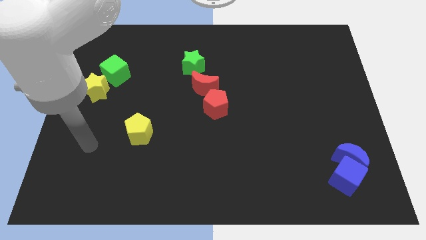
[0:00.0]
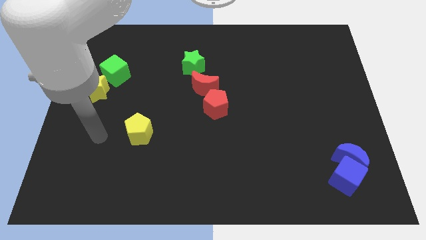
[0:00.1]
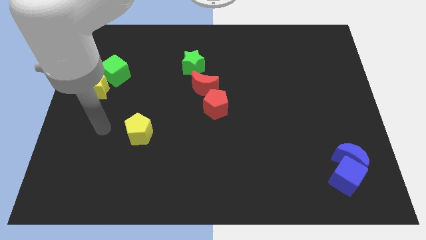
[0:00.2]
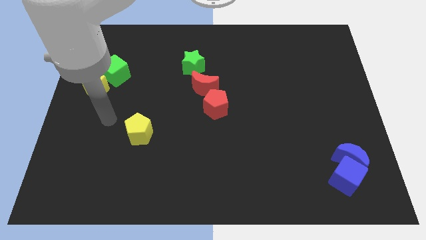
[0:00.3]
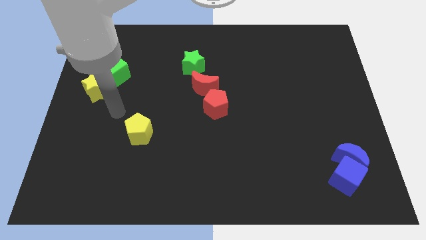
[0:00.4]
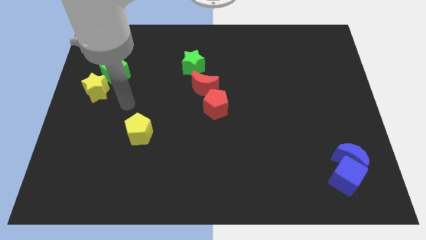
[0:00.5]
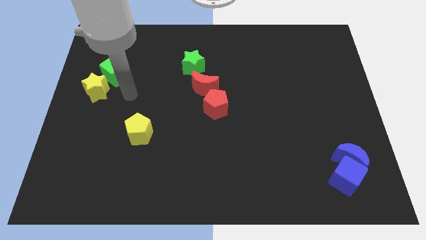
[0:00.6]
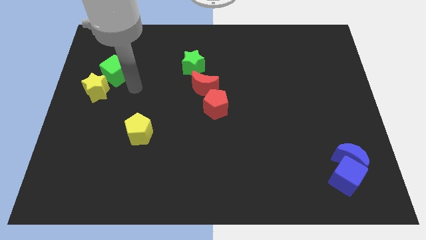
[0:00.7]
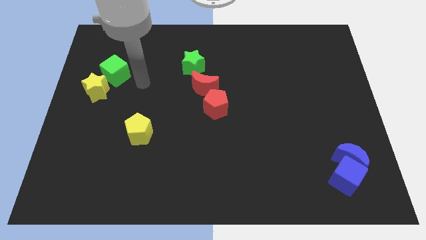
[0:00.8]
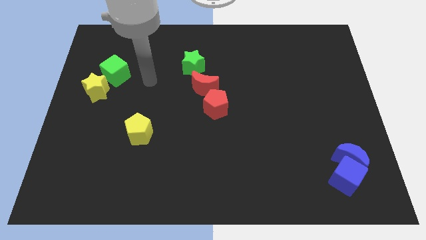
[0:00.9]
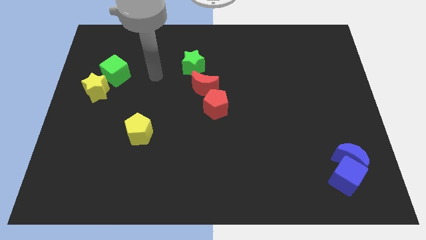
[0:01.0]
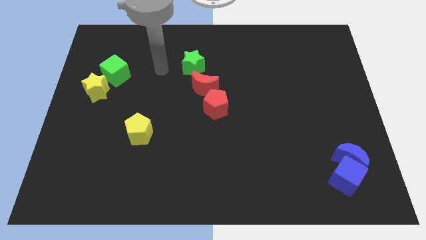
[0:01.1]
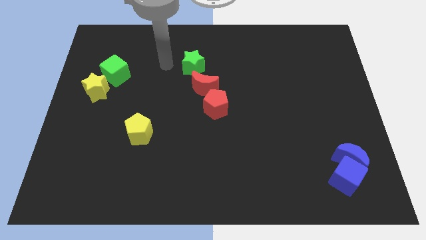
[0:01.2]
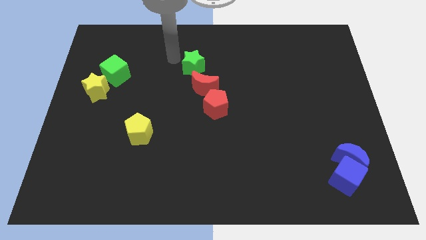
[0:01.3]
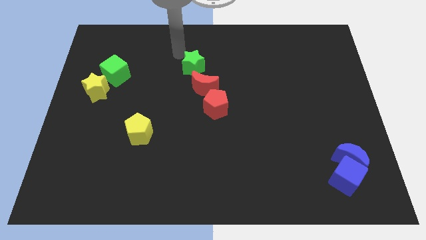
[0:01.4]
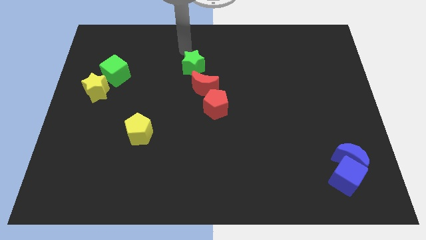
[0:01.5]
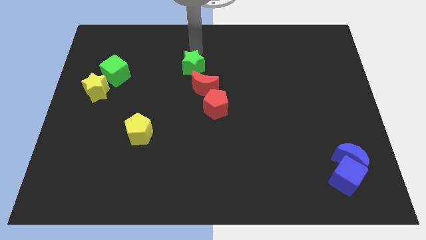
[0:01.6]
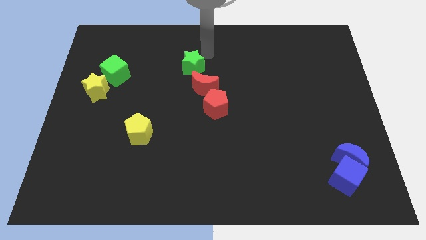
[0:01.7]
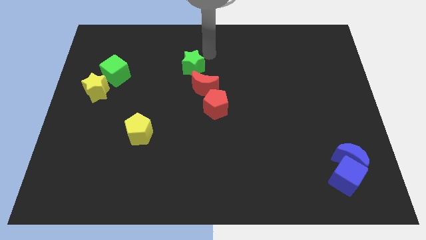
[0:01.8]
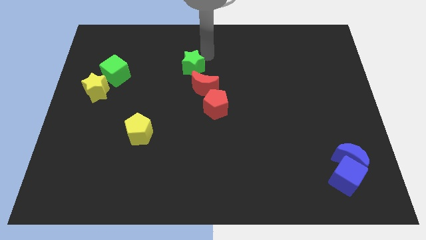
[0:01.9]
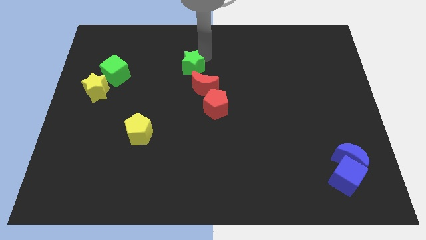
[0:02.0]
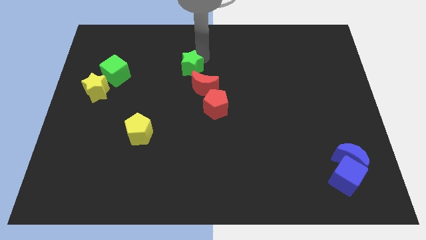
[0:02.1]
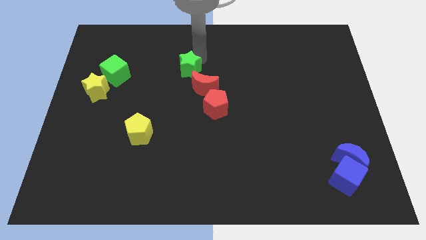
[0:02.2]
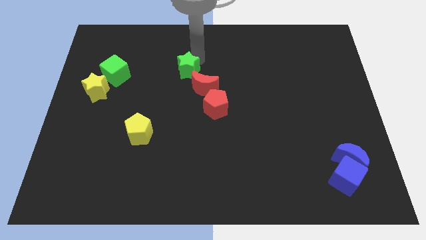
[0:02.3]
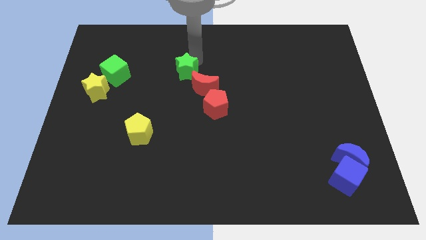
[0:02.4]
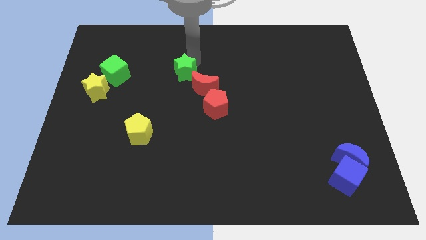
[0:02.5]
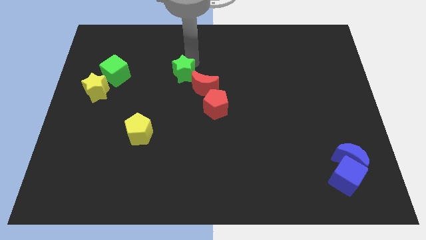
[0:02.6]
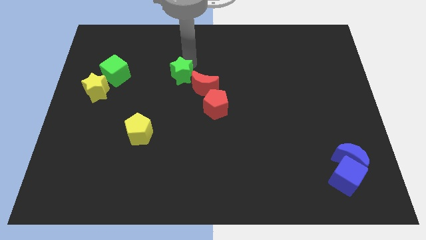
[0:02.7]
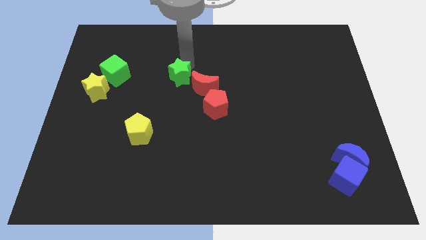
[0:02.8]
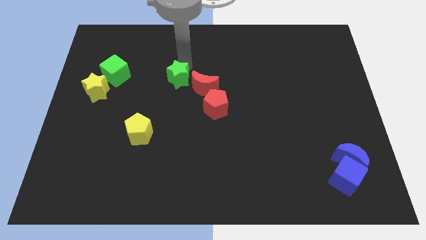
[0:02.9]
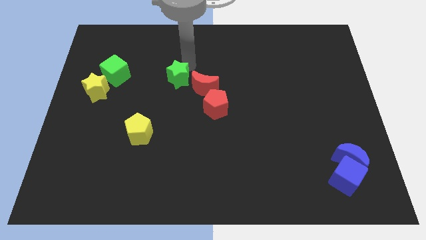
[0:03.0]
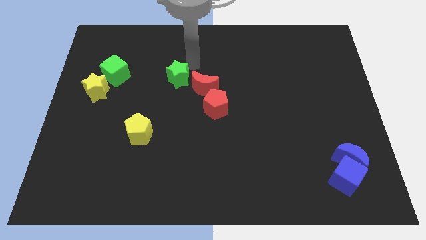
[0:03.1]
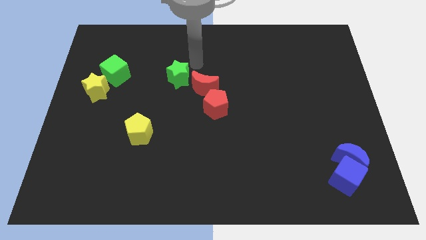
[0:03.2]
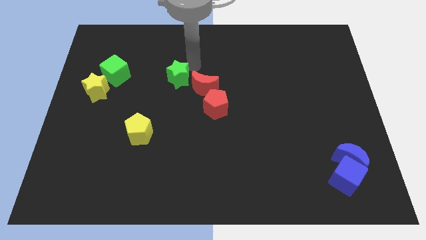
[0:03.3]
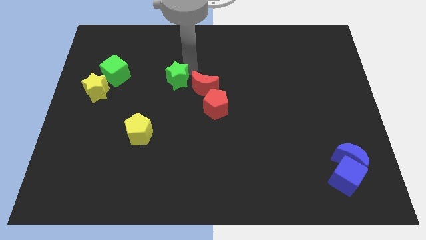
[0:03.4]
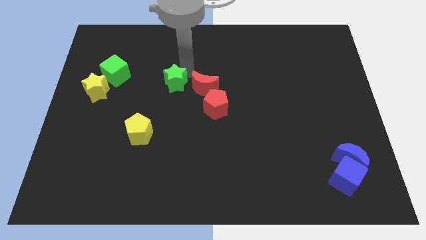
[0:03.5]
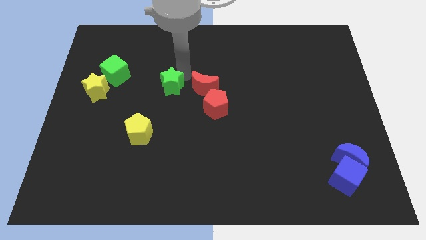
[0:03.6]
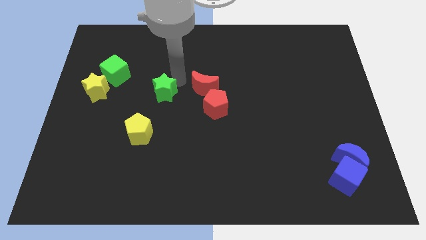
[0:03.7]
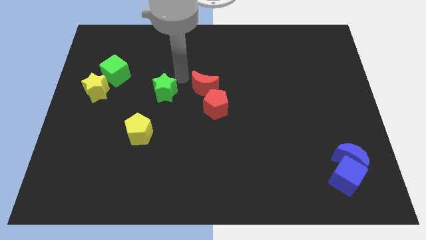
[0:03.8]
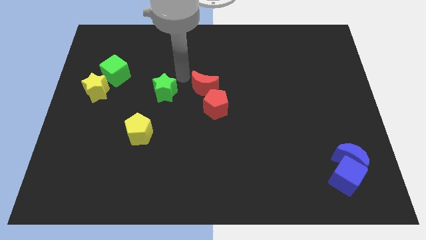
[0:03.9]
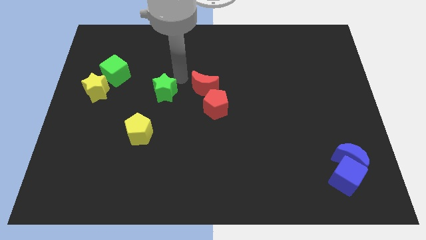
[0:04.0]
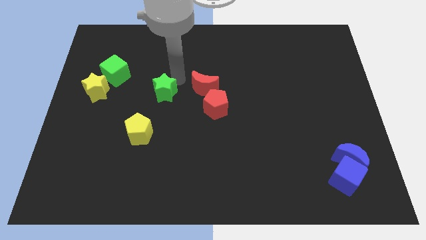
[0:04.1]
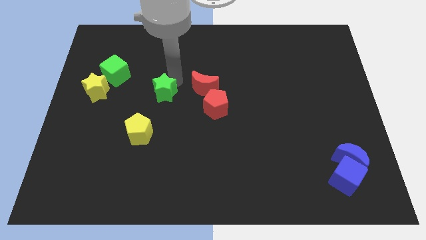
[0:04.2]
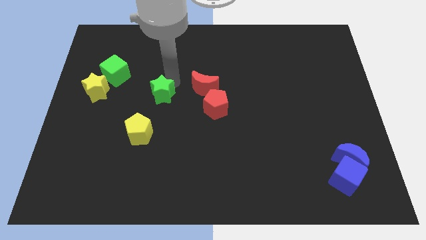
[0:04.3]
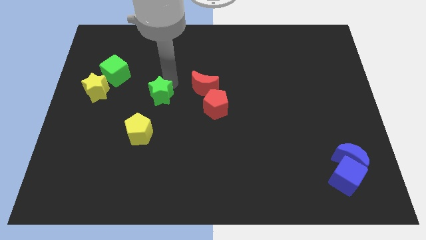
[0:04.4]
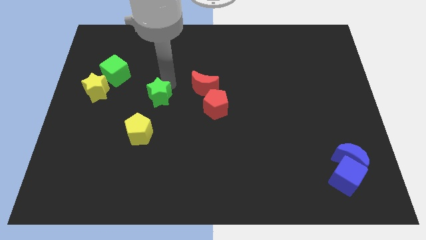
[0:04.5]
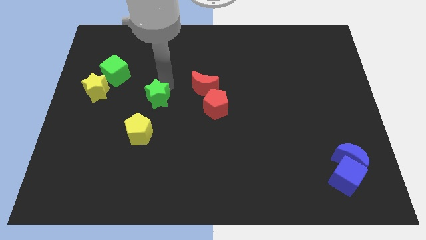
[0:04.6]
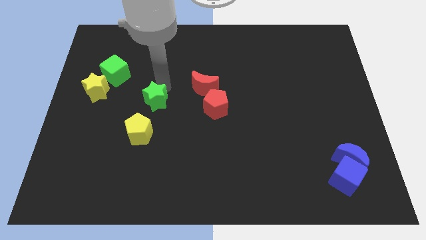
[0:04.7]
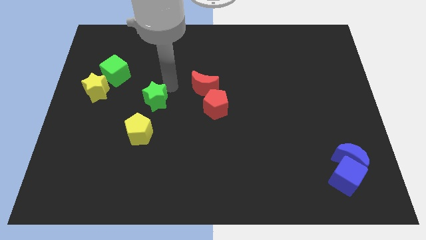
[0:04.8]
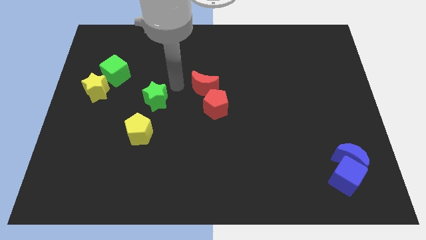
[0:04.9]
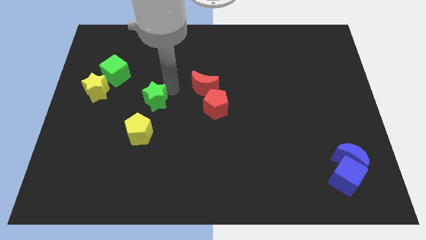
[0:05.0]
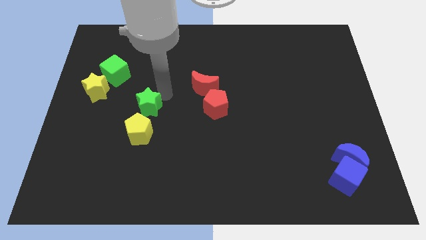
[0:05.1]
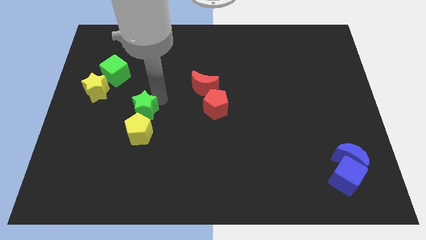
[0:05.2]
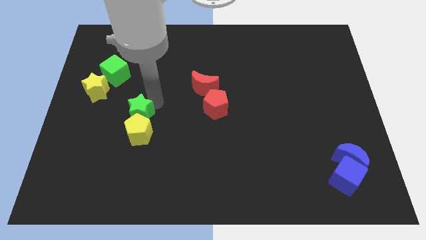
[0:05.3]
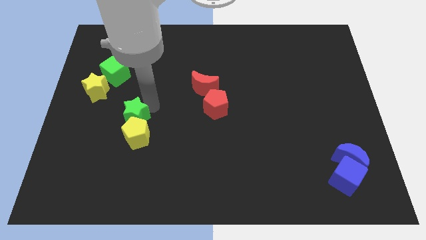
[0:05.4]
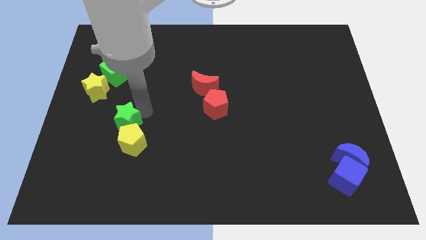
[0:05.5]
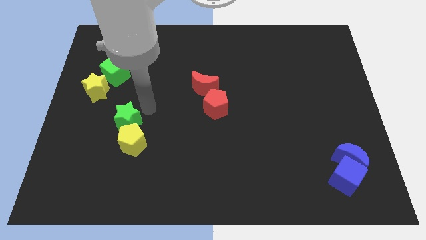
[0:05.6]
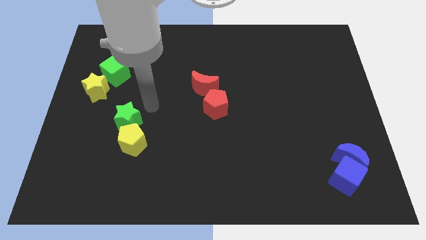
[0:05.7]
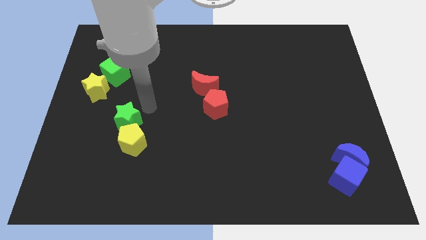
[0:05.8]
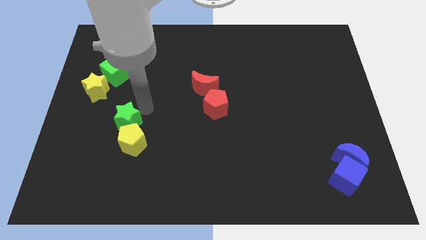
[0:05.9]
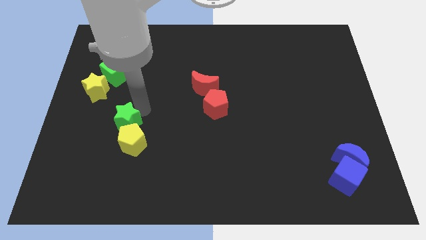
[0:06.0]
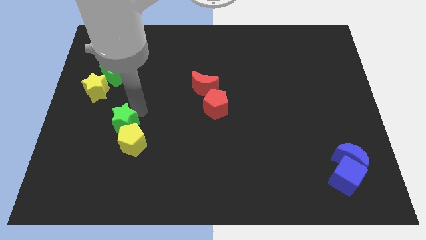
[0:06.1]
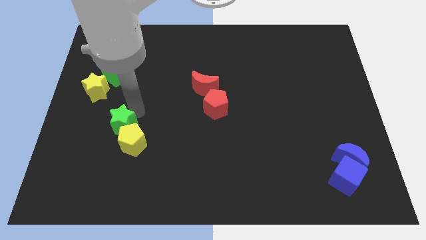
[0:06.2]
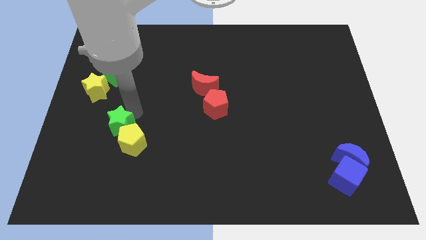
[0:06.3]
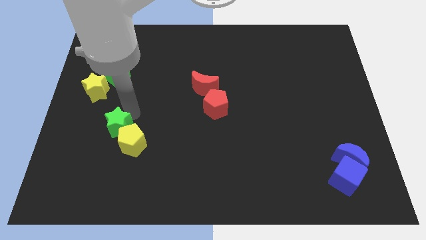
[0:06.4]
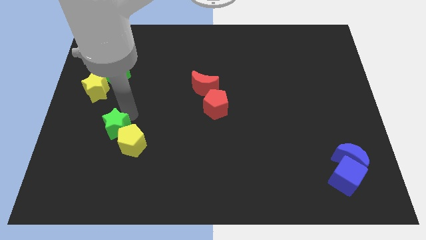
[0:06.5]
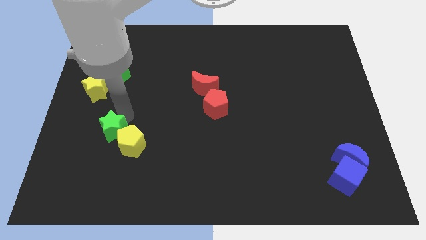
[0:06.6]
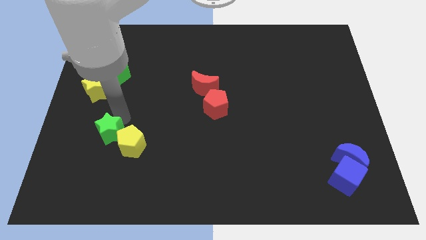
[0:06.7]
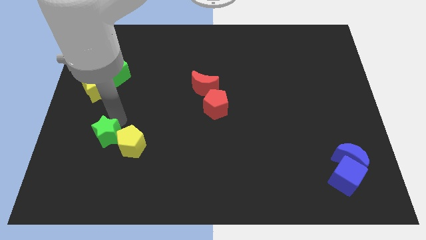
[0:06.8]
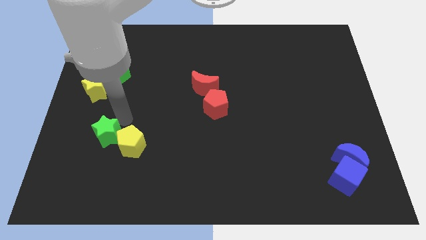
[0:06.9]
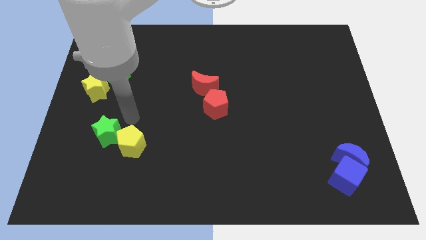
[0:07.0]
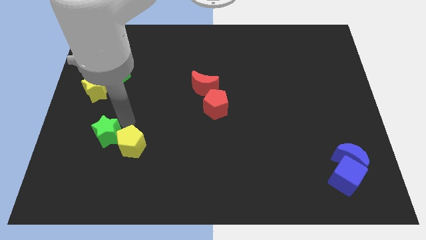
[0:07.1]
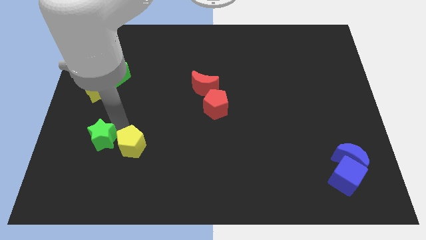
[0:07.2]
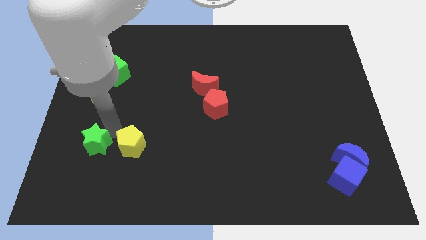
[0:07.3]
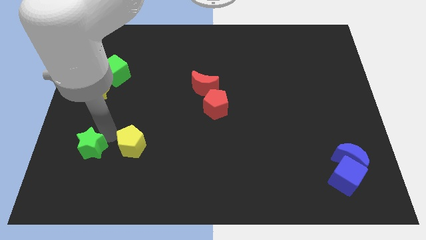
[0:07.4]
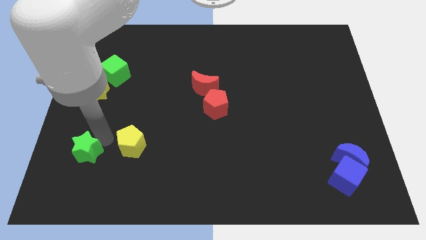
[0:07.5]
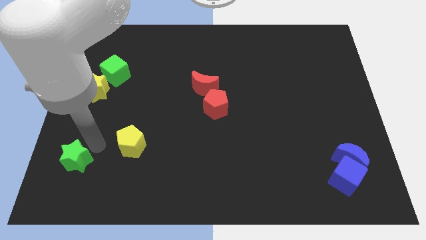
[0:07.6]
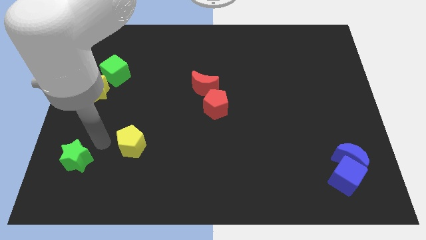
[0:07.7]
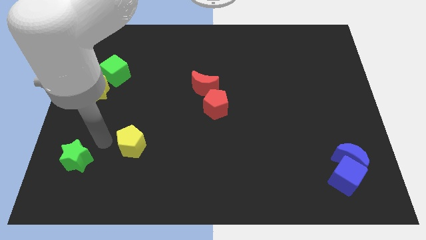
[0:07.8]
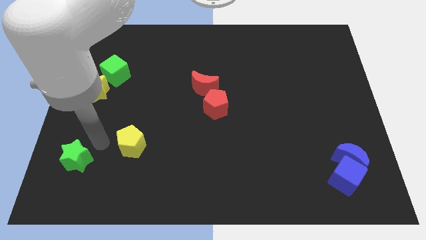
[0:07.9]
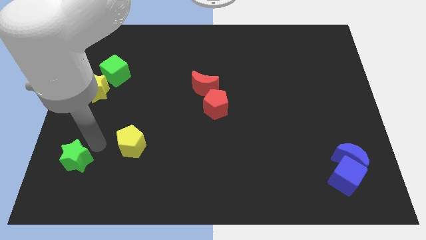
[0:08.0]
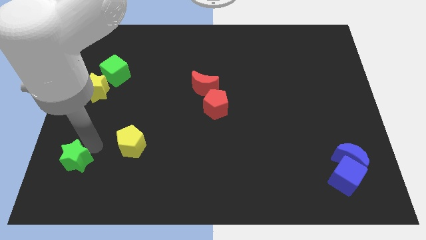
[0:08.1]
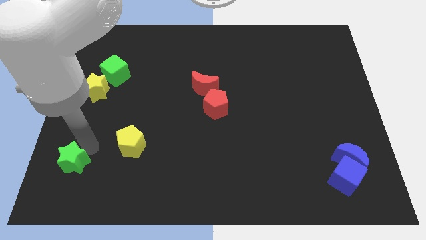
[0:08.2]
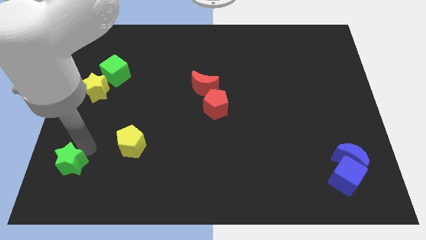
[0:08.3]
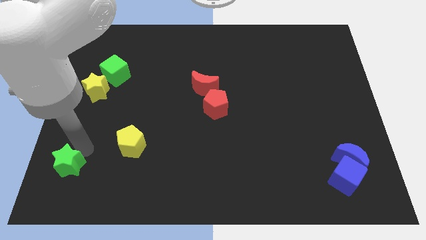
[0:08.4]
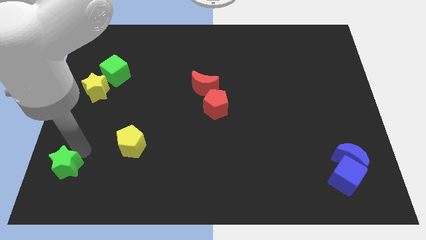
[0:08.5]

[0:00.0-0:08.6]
move the green star to the bottom left corner

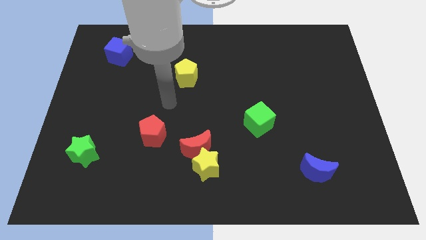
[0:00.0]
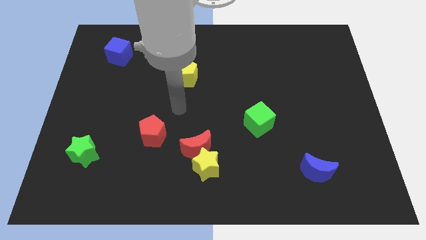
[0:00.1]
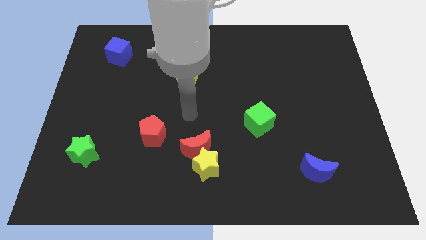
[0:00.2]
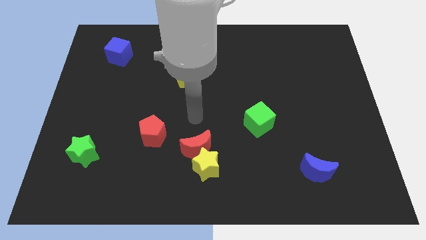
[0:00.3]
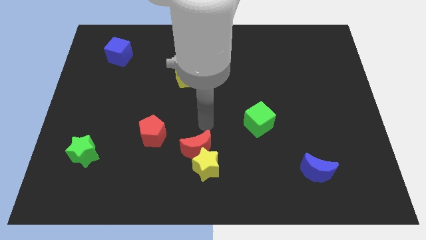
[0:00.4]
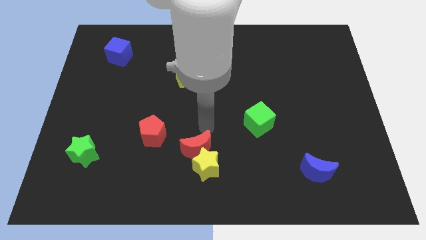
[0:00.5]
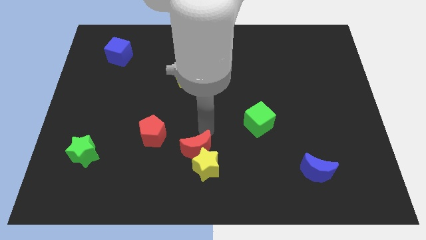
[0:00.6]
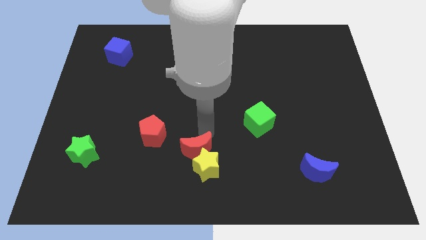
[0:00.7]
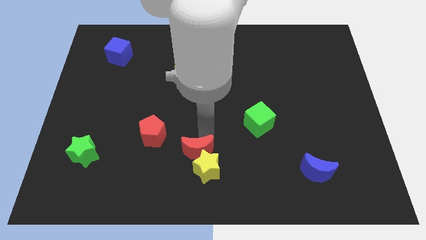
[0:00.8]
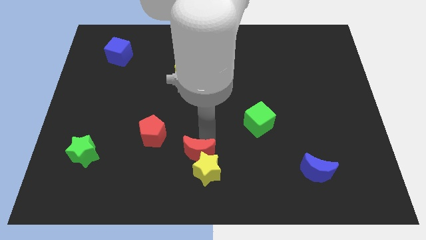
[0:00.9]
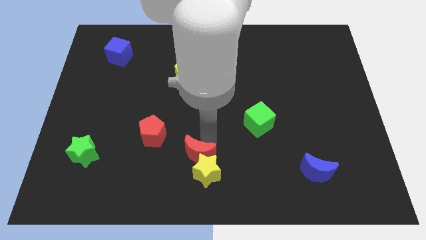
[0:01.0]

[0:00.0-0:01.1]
move the red moon to the bottom side
